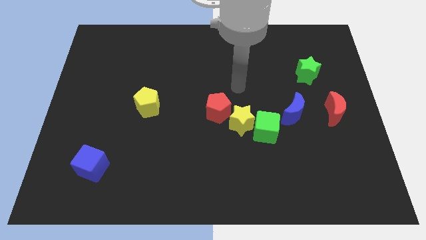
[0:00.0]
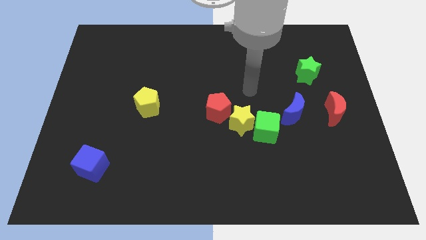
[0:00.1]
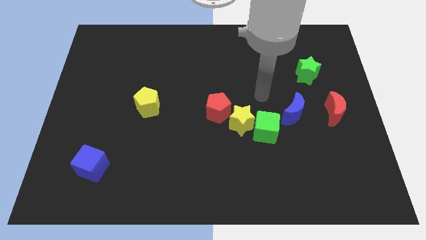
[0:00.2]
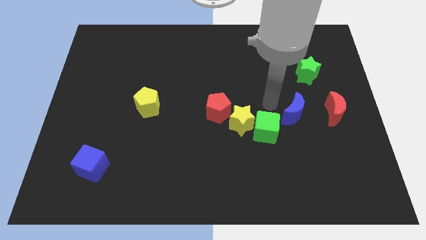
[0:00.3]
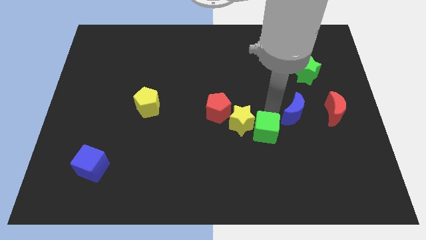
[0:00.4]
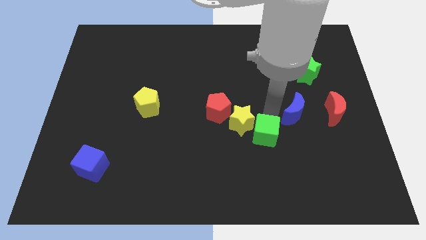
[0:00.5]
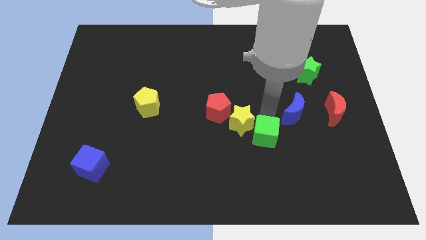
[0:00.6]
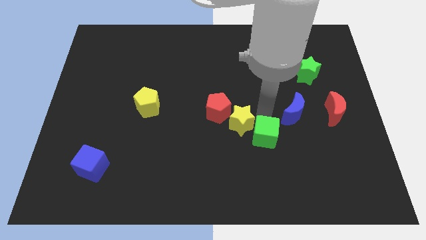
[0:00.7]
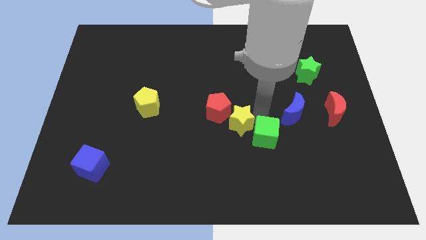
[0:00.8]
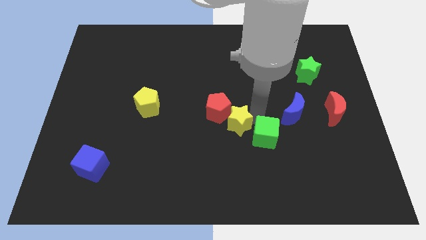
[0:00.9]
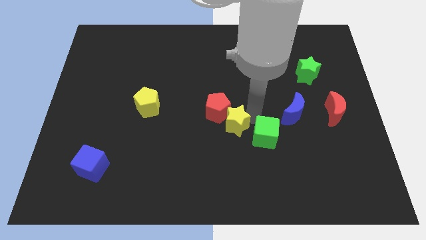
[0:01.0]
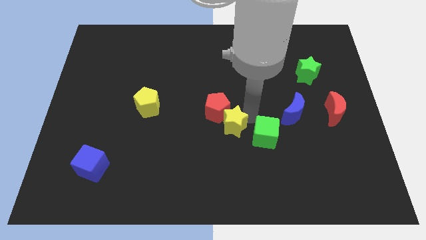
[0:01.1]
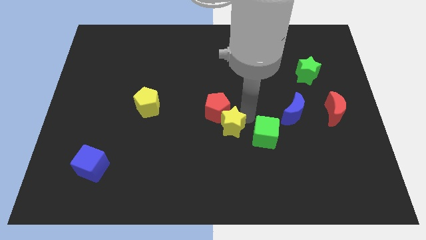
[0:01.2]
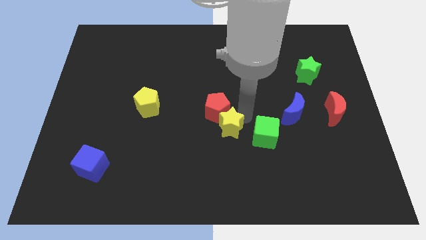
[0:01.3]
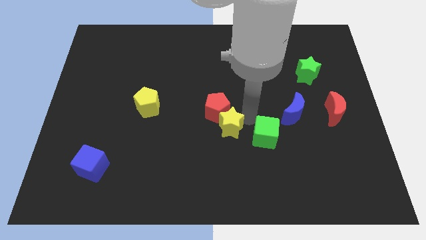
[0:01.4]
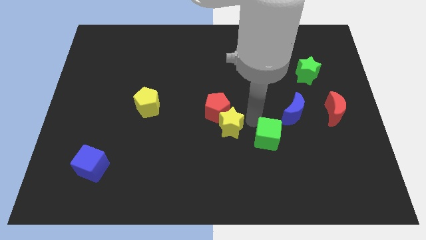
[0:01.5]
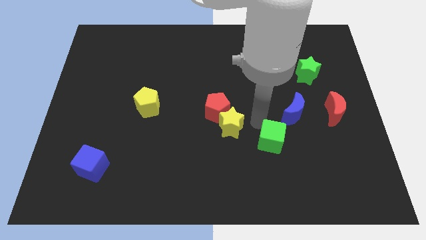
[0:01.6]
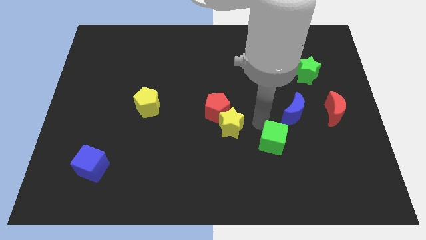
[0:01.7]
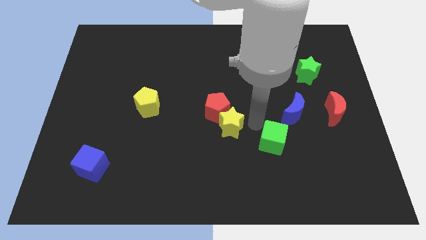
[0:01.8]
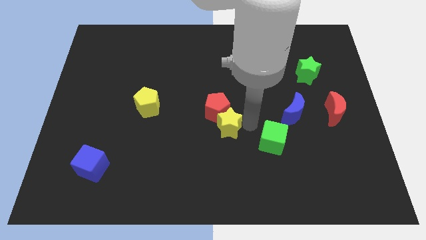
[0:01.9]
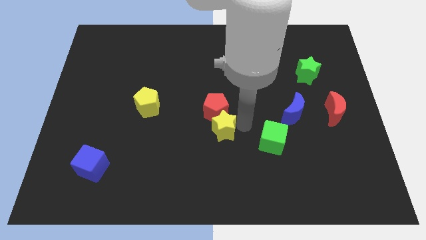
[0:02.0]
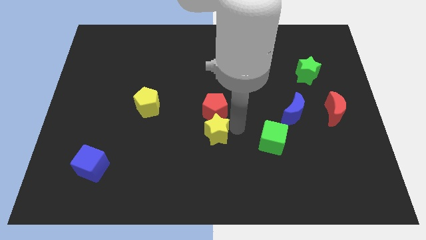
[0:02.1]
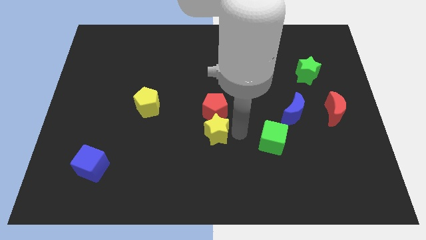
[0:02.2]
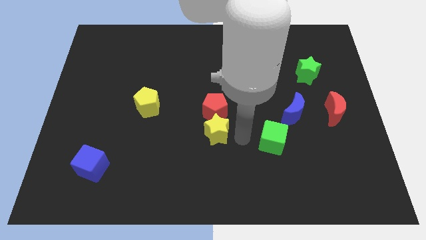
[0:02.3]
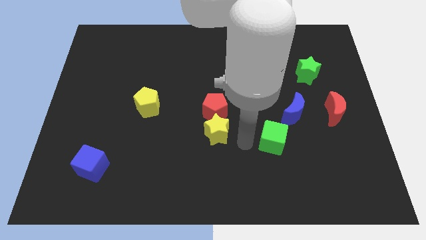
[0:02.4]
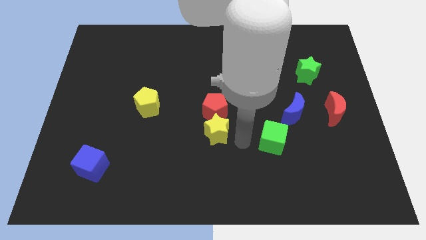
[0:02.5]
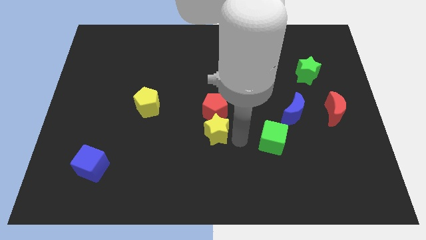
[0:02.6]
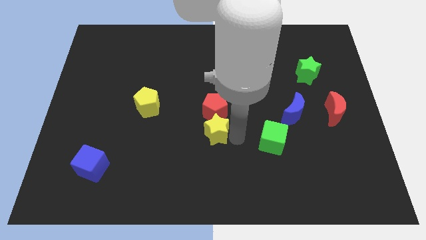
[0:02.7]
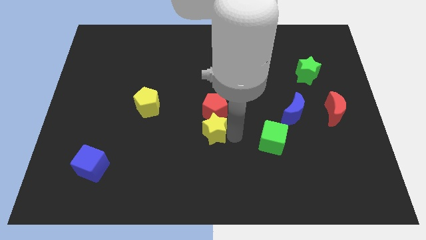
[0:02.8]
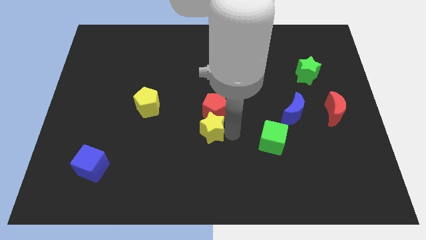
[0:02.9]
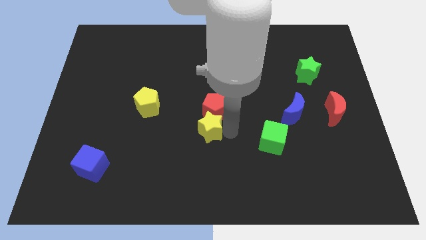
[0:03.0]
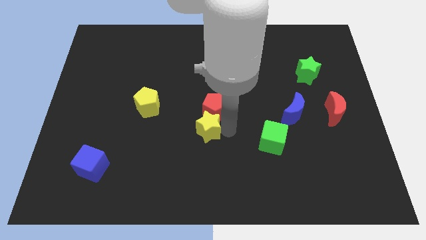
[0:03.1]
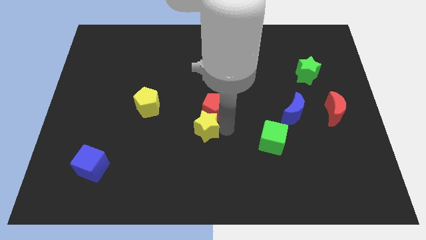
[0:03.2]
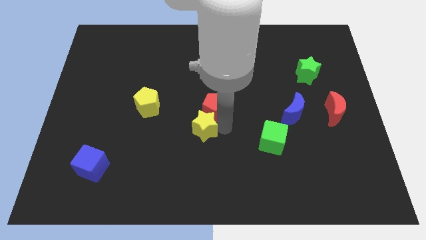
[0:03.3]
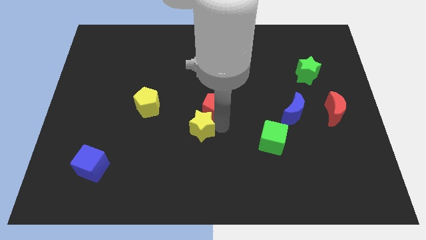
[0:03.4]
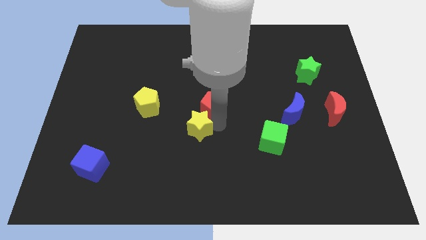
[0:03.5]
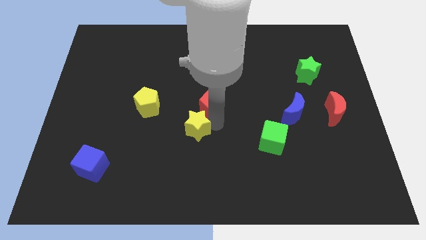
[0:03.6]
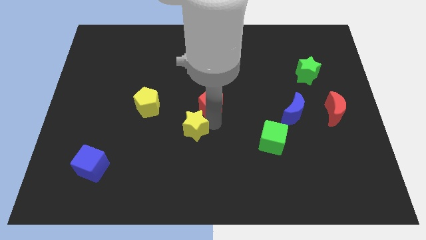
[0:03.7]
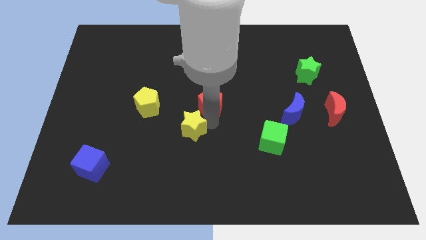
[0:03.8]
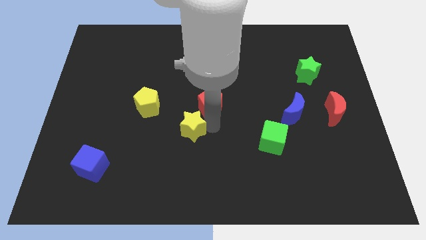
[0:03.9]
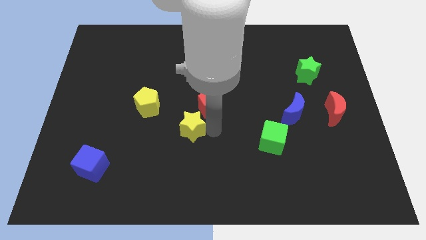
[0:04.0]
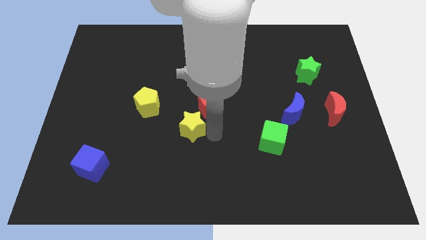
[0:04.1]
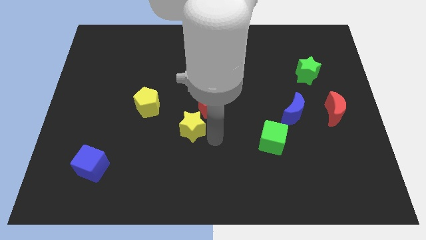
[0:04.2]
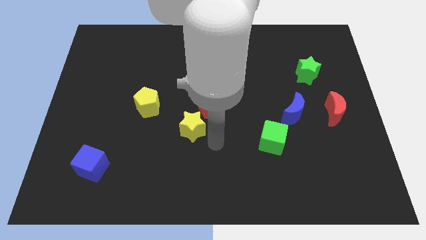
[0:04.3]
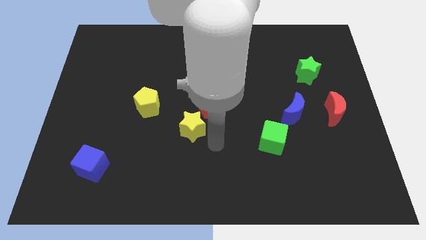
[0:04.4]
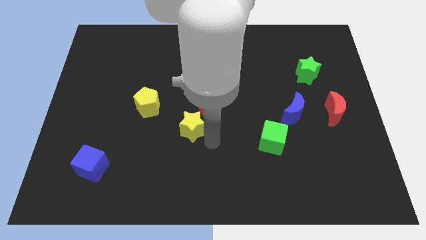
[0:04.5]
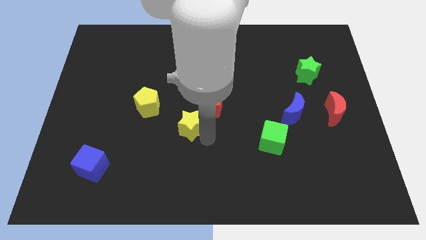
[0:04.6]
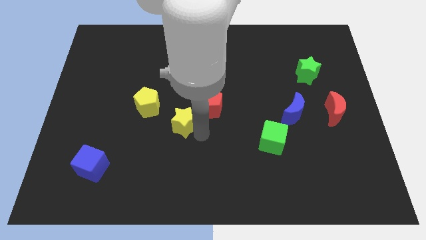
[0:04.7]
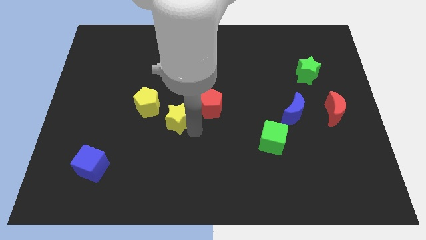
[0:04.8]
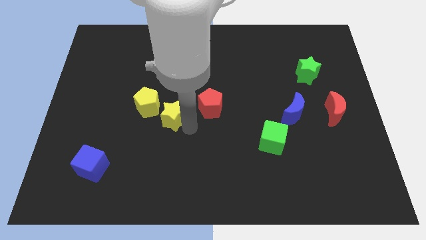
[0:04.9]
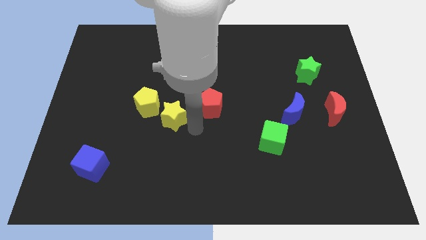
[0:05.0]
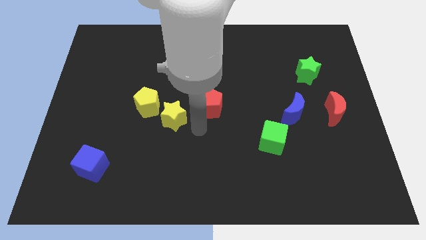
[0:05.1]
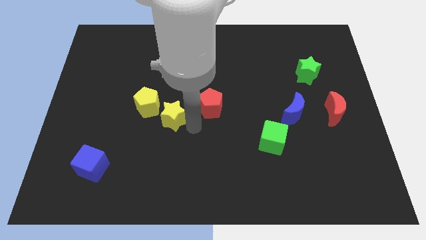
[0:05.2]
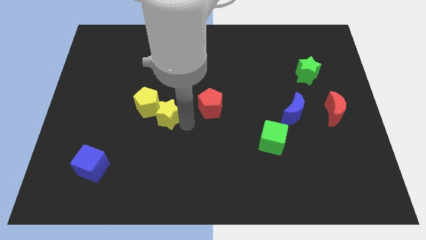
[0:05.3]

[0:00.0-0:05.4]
move the yellow star next to the yellow pentagon

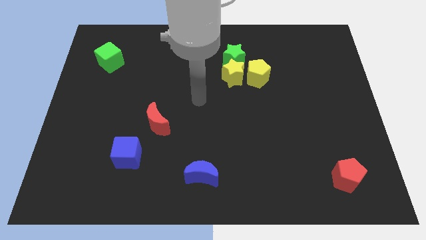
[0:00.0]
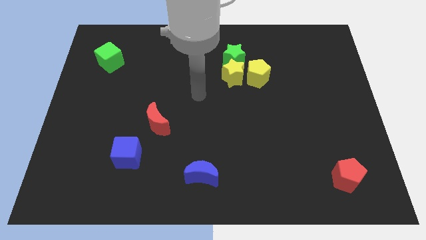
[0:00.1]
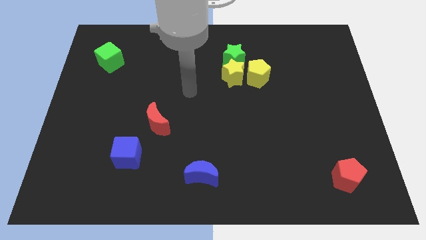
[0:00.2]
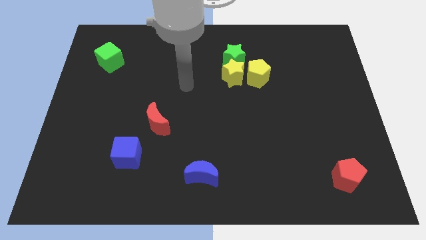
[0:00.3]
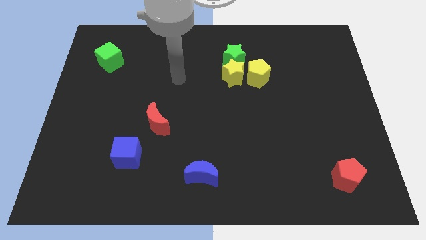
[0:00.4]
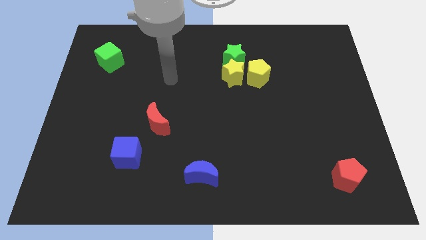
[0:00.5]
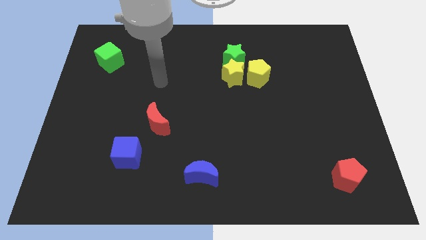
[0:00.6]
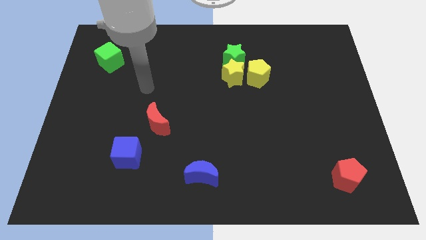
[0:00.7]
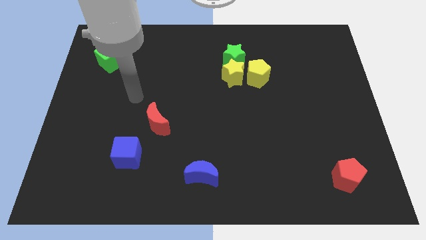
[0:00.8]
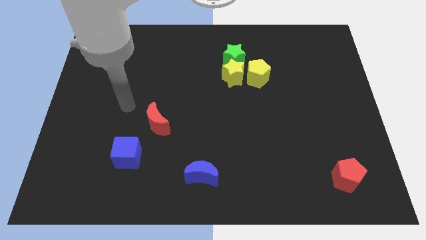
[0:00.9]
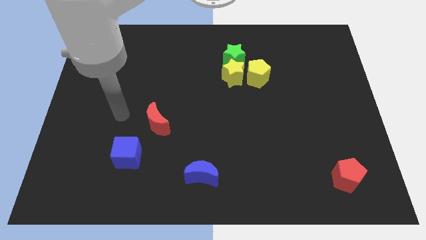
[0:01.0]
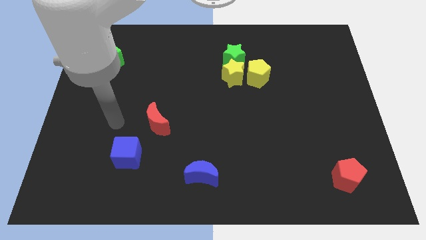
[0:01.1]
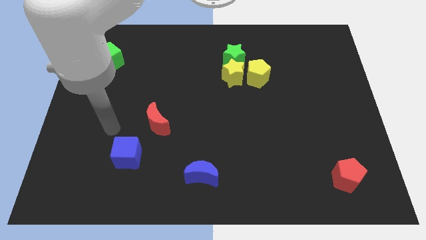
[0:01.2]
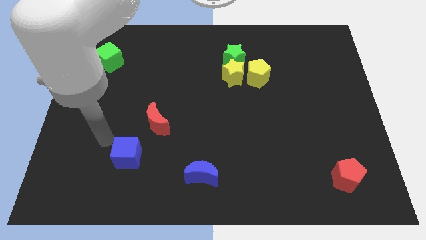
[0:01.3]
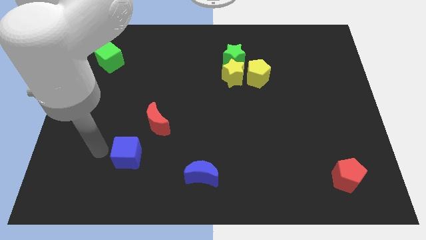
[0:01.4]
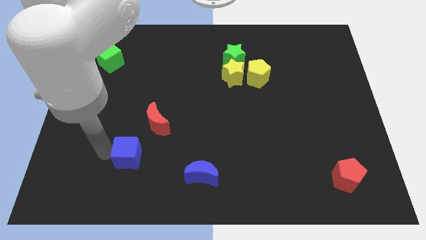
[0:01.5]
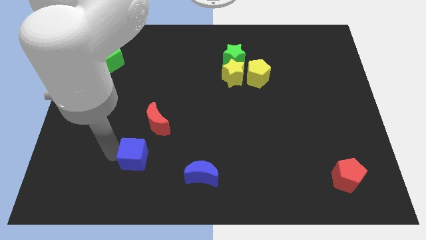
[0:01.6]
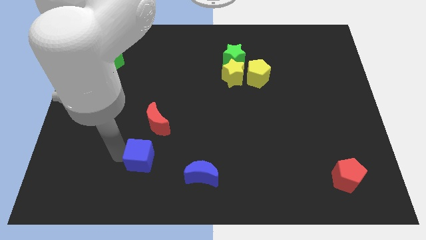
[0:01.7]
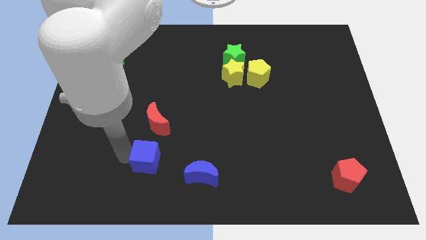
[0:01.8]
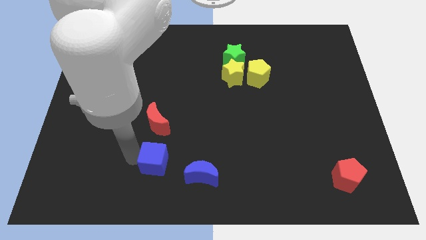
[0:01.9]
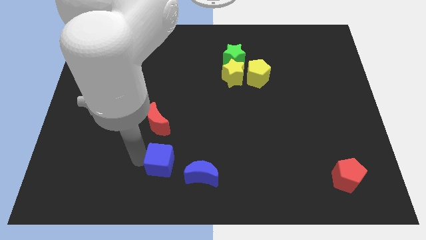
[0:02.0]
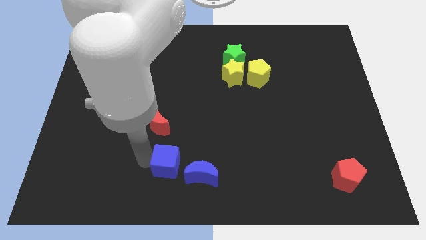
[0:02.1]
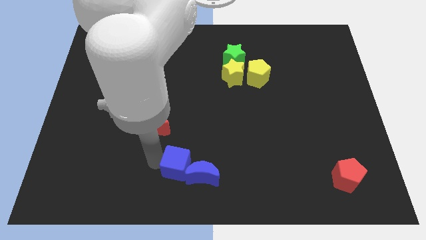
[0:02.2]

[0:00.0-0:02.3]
slide the blue cube next to the blue moon
